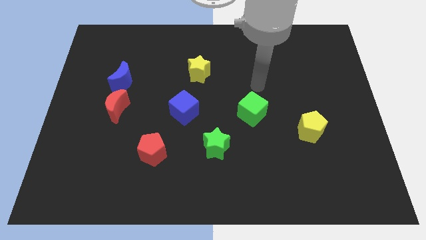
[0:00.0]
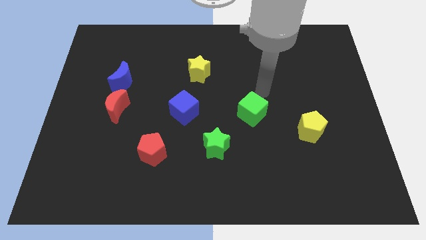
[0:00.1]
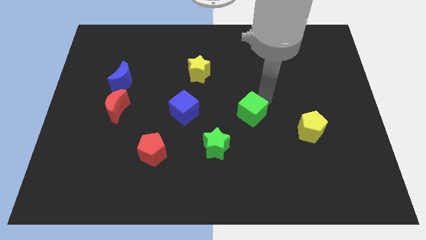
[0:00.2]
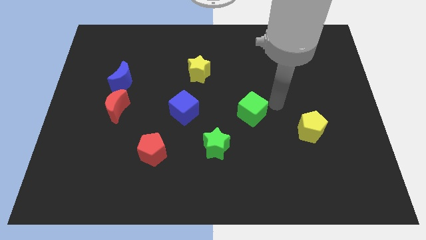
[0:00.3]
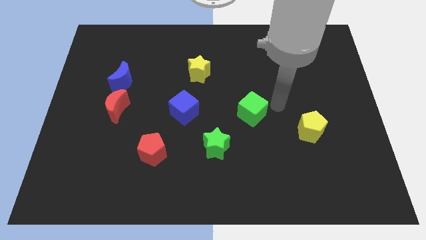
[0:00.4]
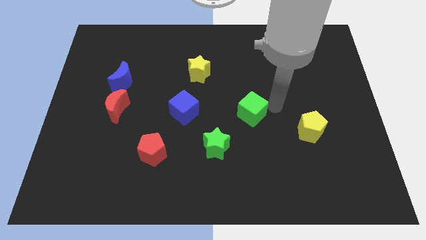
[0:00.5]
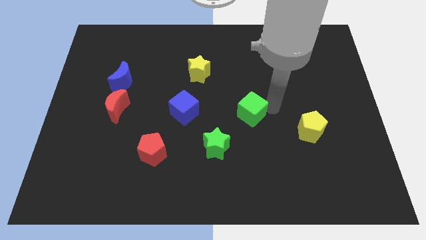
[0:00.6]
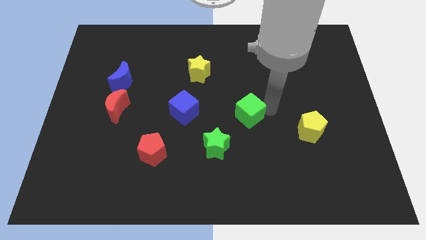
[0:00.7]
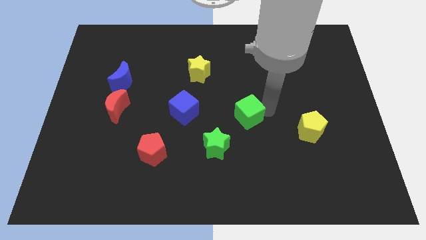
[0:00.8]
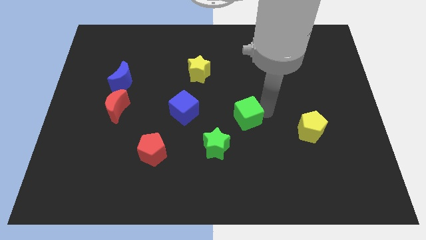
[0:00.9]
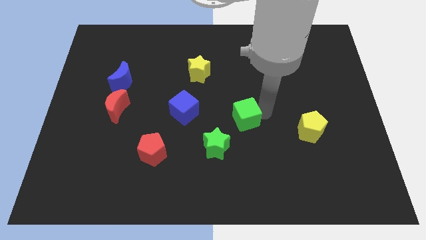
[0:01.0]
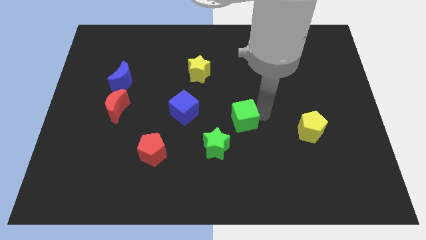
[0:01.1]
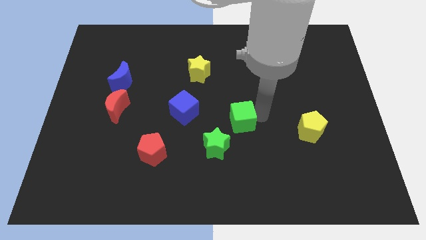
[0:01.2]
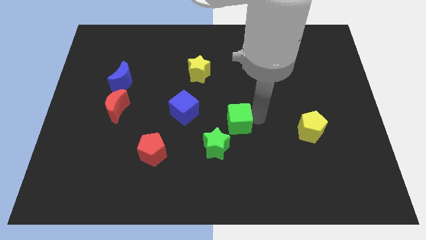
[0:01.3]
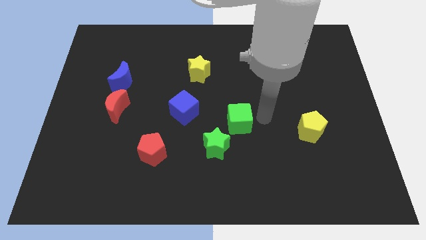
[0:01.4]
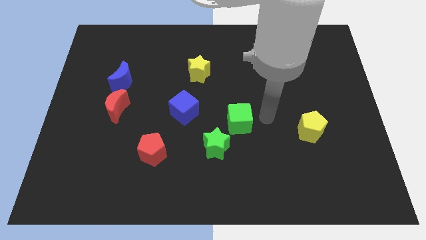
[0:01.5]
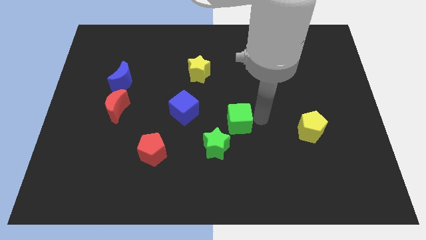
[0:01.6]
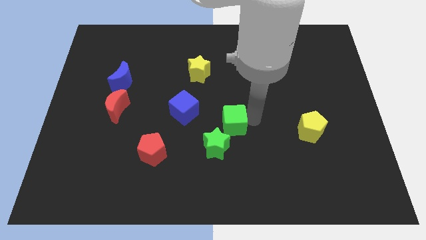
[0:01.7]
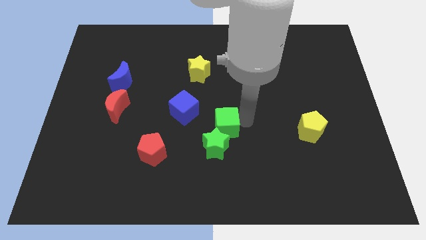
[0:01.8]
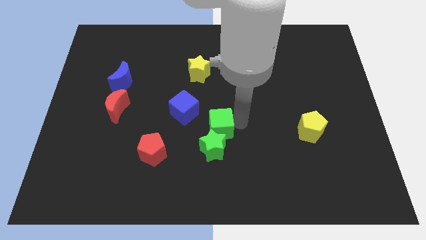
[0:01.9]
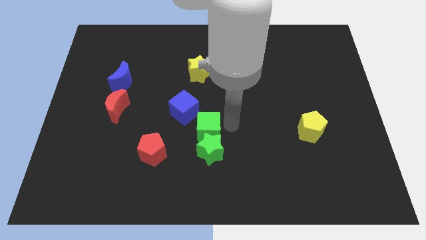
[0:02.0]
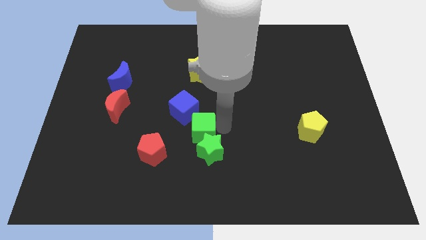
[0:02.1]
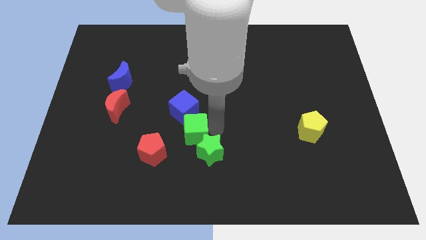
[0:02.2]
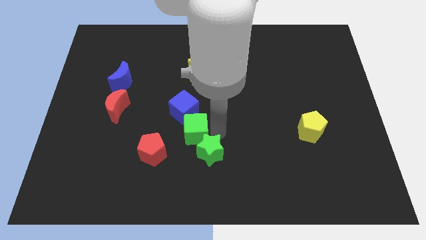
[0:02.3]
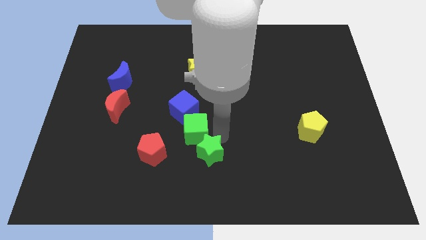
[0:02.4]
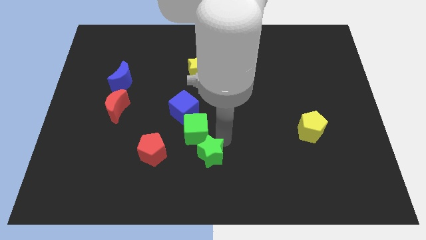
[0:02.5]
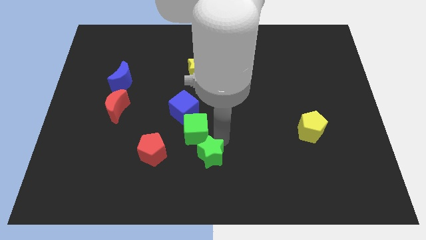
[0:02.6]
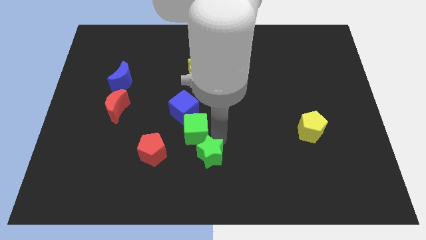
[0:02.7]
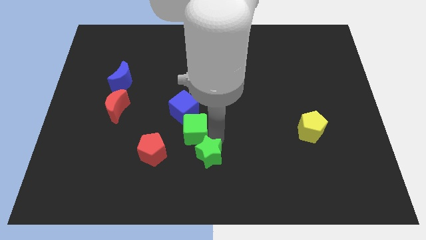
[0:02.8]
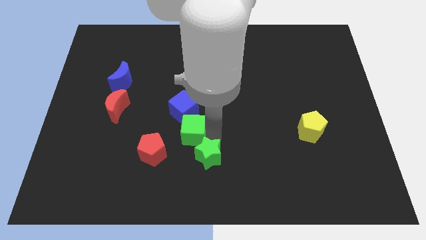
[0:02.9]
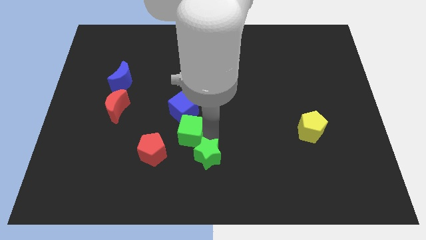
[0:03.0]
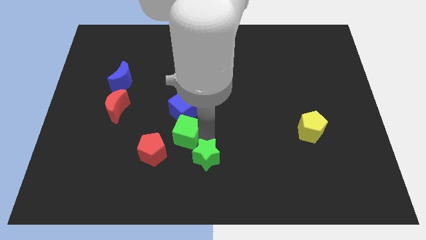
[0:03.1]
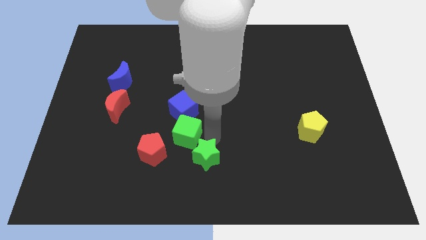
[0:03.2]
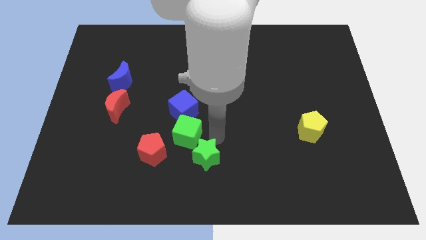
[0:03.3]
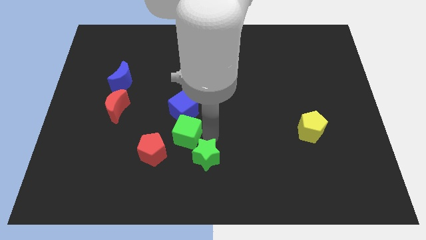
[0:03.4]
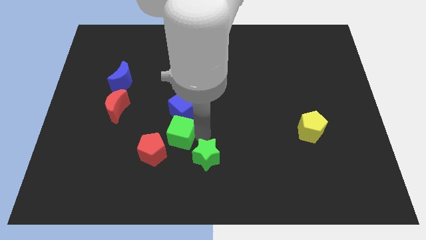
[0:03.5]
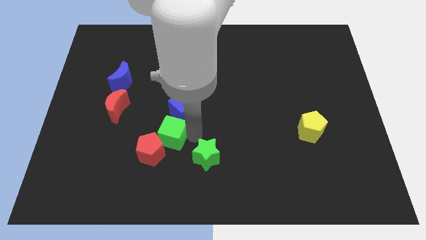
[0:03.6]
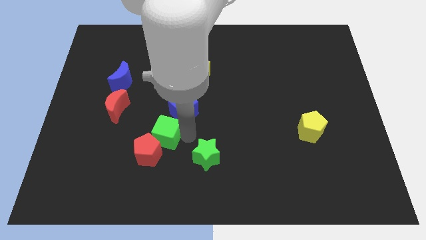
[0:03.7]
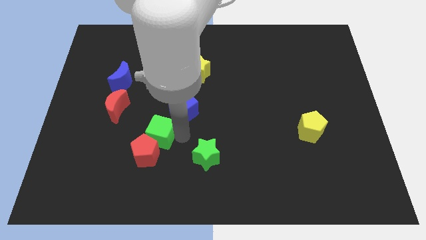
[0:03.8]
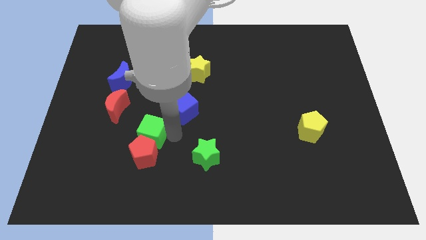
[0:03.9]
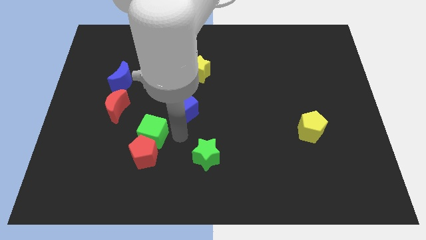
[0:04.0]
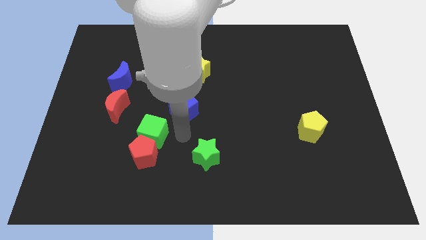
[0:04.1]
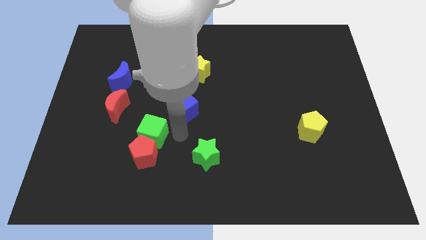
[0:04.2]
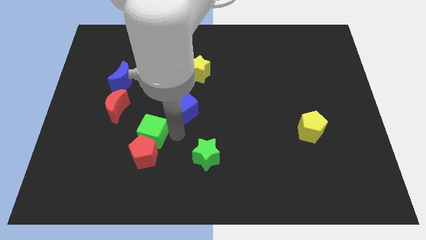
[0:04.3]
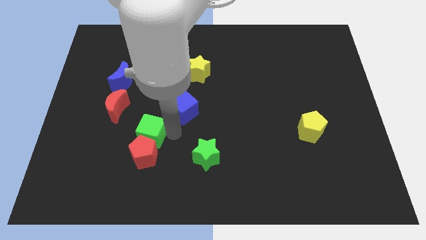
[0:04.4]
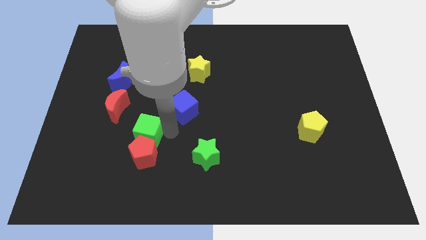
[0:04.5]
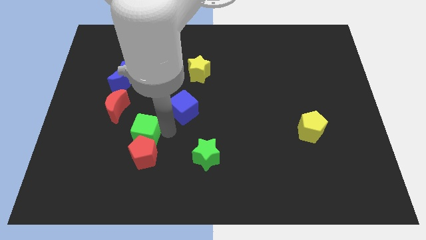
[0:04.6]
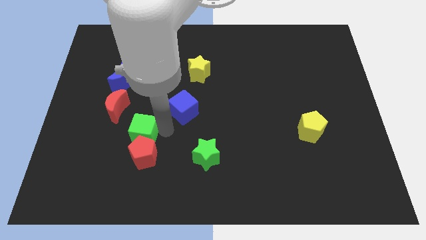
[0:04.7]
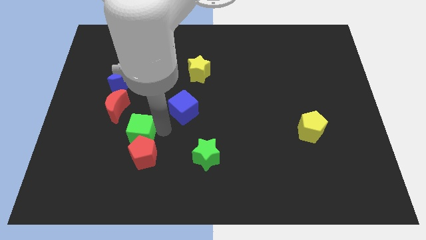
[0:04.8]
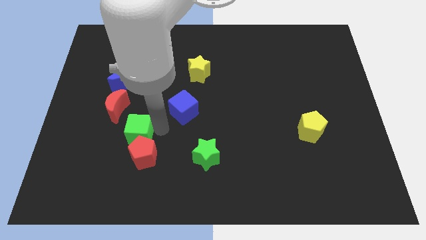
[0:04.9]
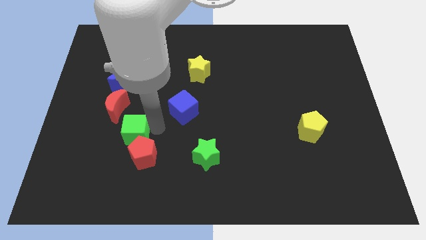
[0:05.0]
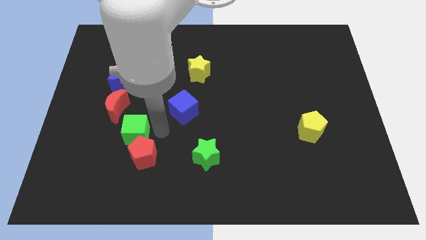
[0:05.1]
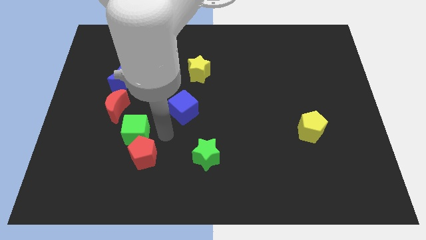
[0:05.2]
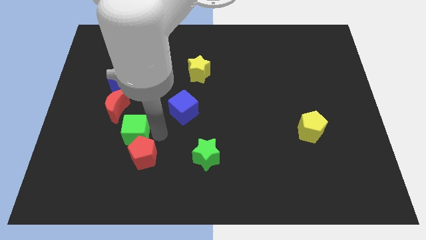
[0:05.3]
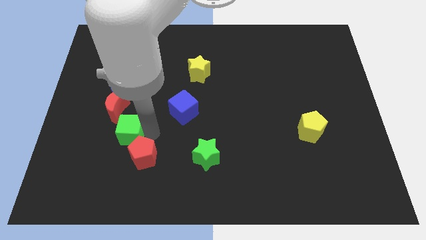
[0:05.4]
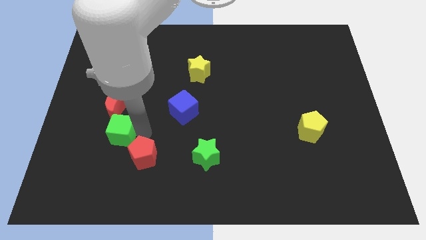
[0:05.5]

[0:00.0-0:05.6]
move the green cube to the bottom side of the blue moon

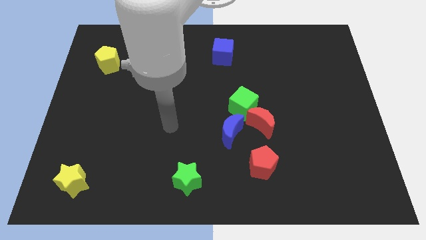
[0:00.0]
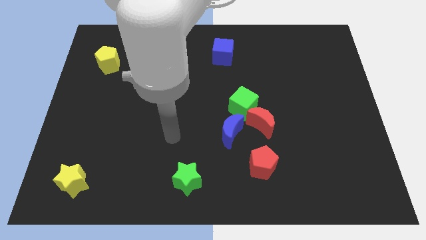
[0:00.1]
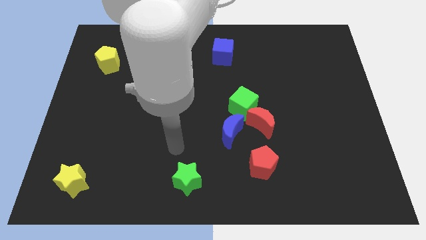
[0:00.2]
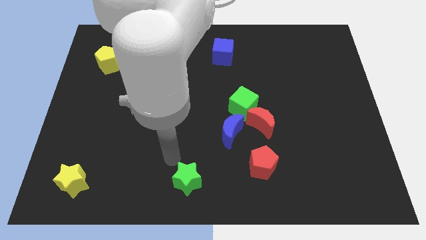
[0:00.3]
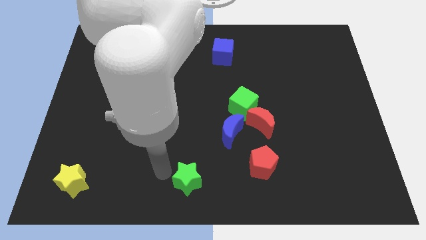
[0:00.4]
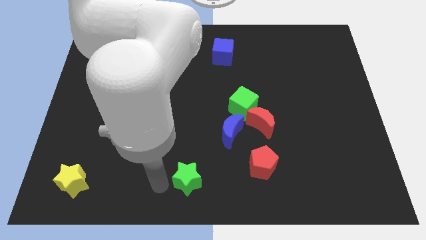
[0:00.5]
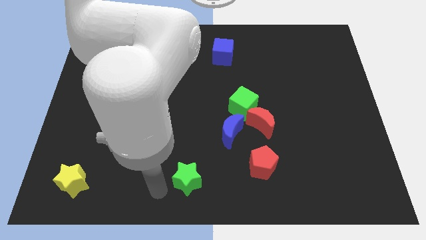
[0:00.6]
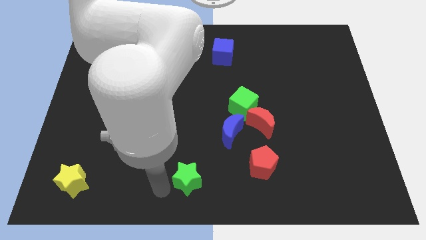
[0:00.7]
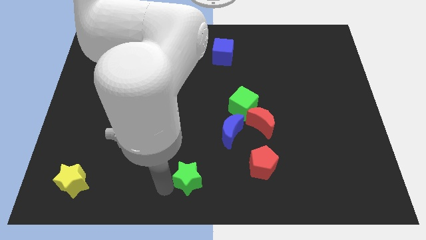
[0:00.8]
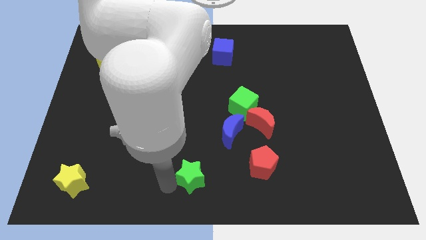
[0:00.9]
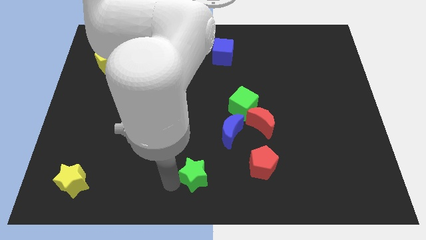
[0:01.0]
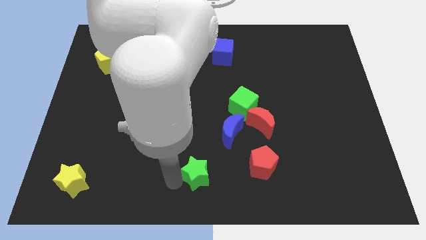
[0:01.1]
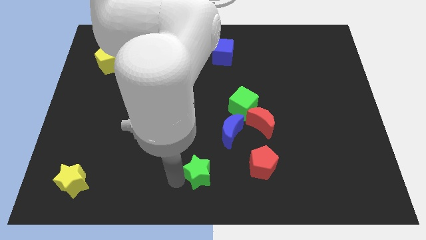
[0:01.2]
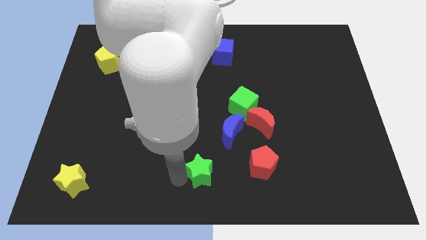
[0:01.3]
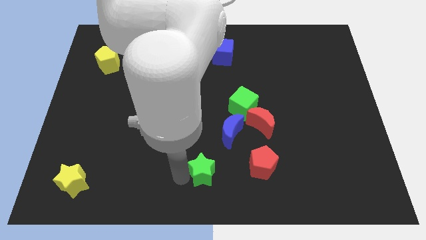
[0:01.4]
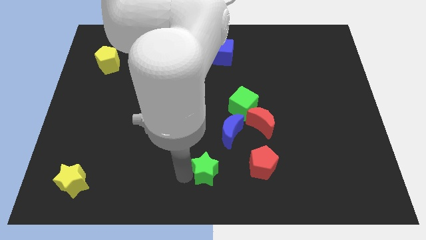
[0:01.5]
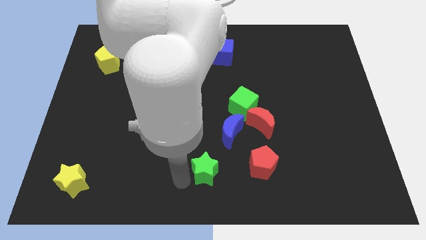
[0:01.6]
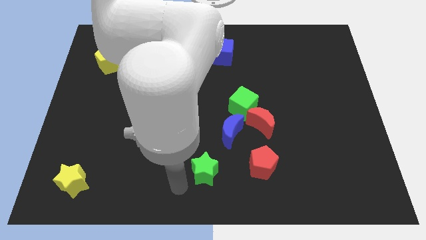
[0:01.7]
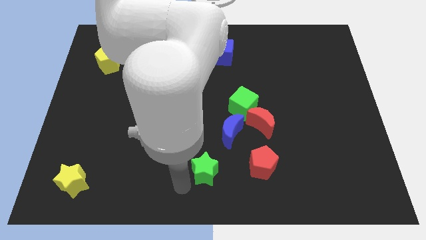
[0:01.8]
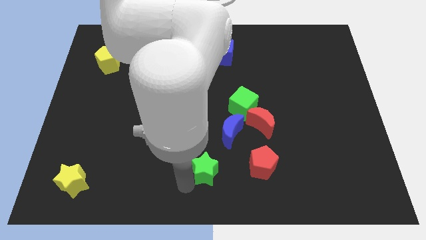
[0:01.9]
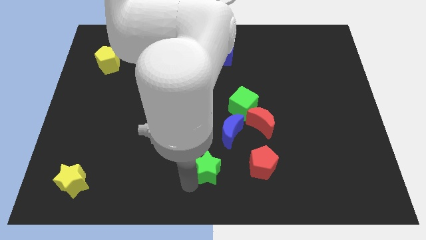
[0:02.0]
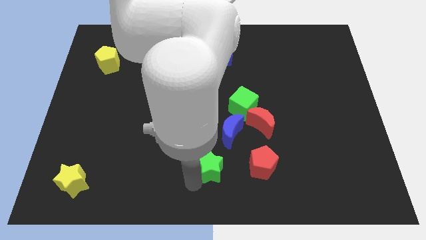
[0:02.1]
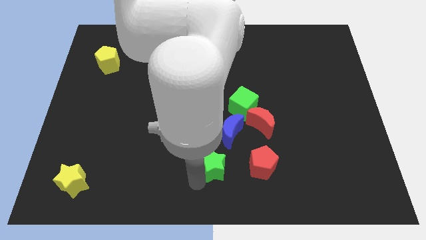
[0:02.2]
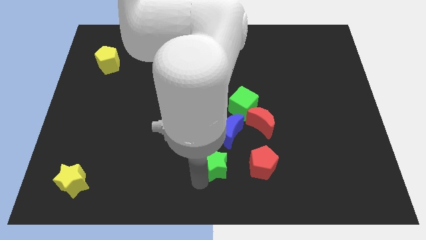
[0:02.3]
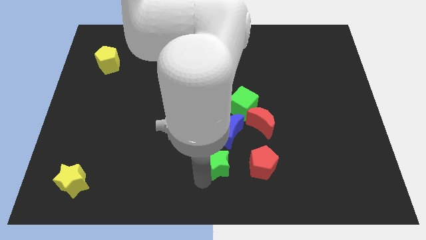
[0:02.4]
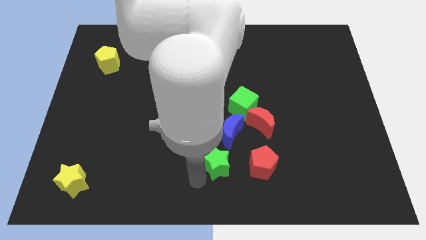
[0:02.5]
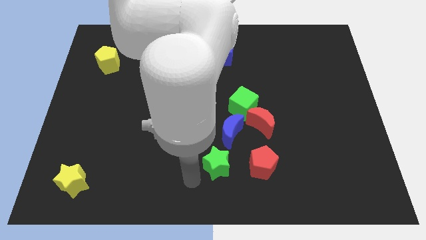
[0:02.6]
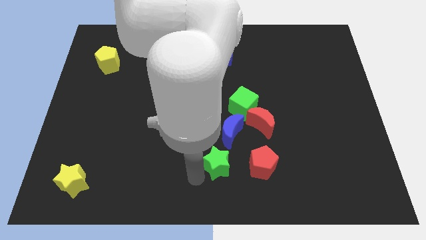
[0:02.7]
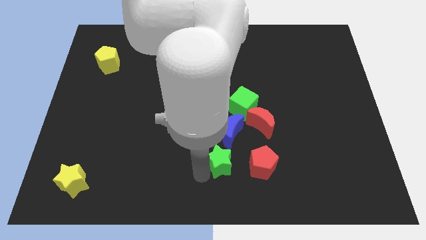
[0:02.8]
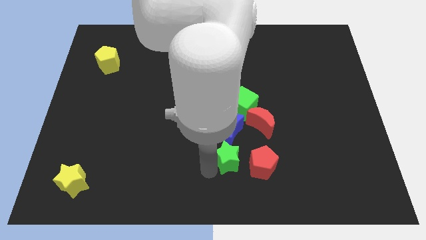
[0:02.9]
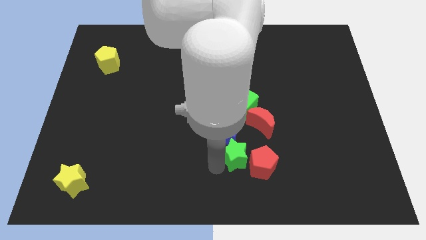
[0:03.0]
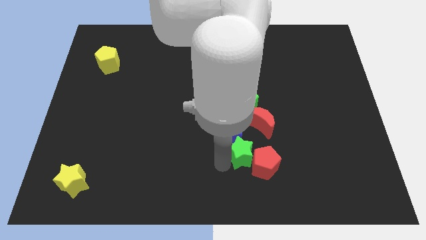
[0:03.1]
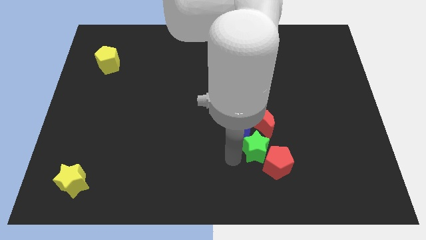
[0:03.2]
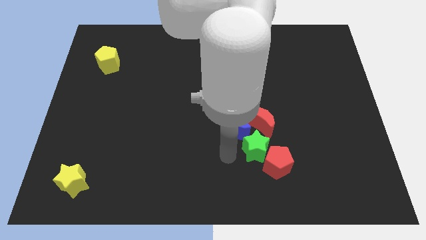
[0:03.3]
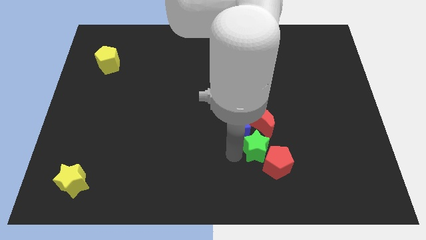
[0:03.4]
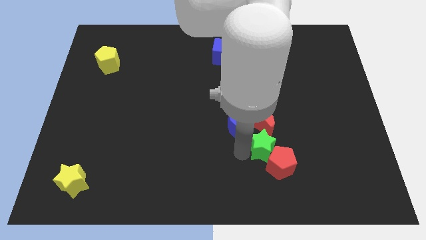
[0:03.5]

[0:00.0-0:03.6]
push the green star diagonally down and to the right of the red moon
